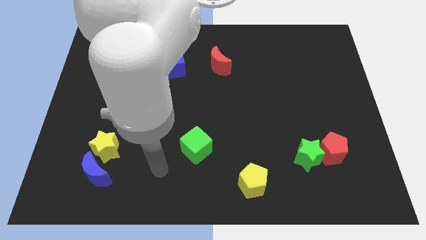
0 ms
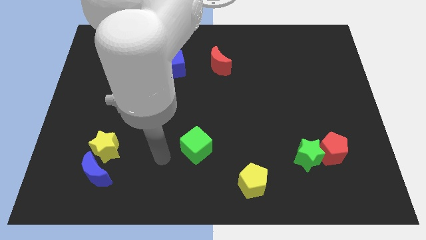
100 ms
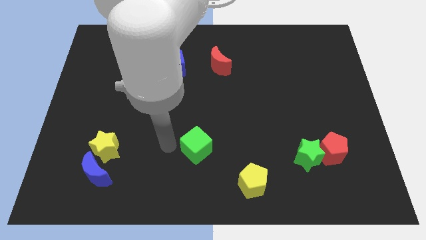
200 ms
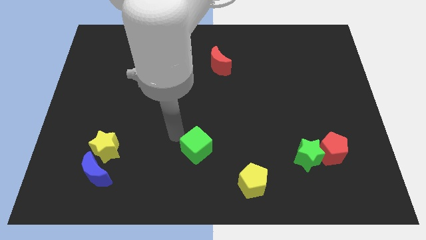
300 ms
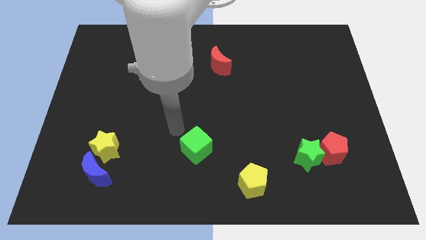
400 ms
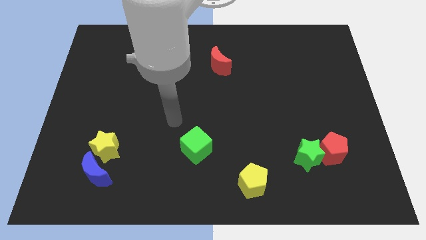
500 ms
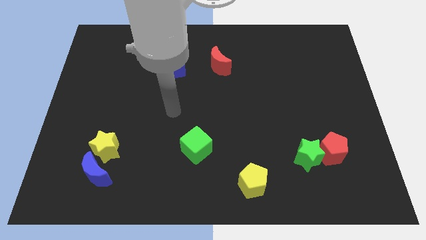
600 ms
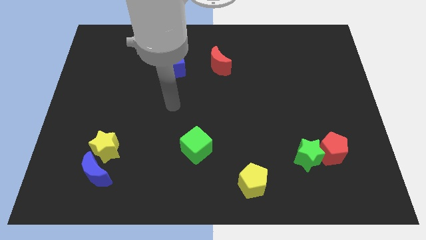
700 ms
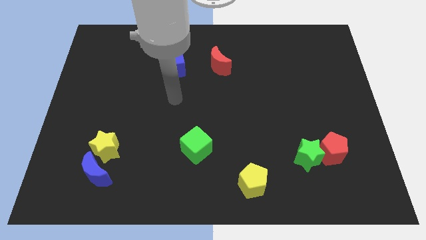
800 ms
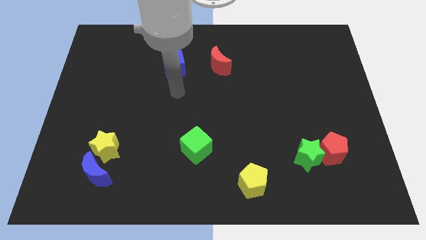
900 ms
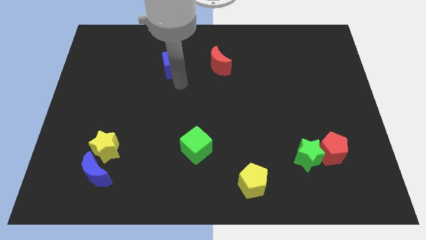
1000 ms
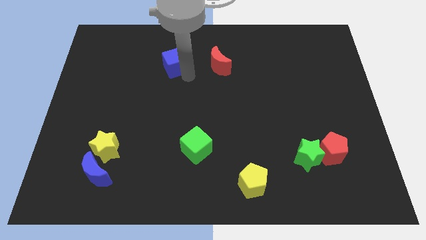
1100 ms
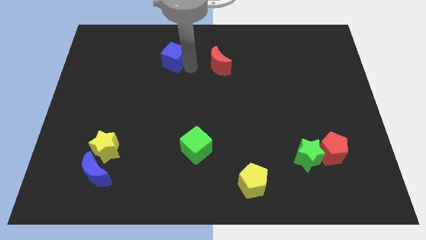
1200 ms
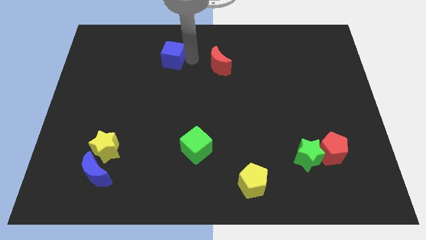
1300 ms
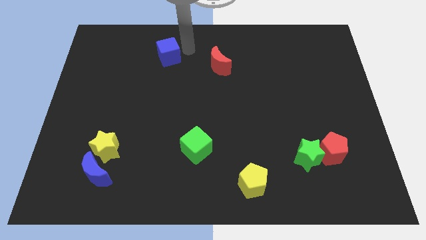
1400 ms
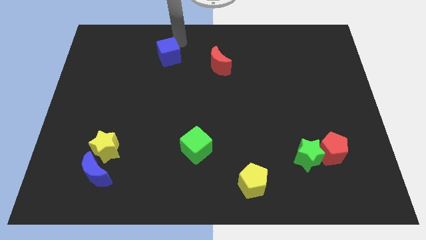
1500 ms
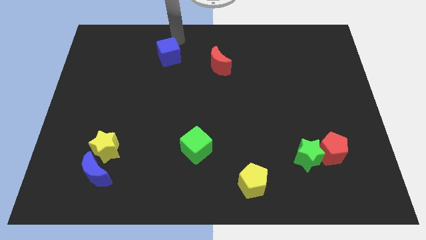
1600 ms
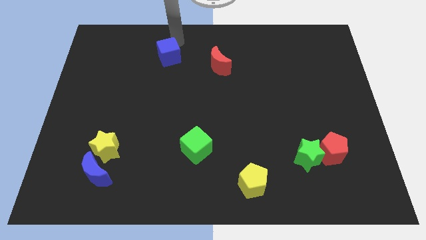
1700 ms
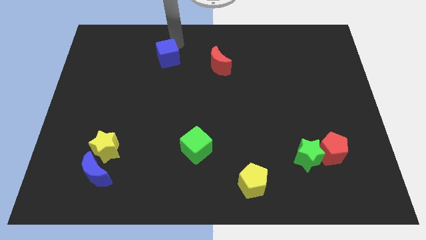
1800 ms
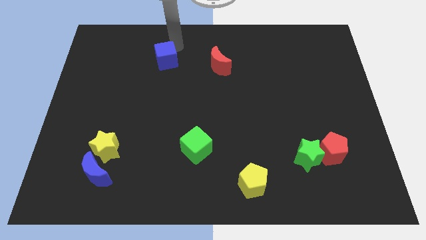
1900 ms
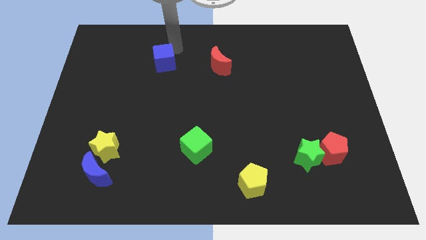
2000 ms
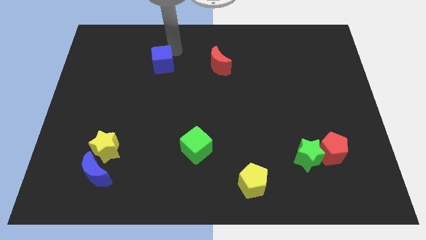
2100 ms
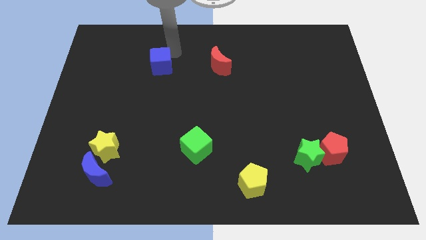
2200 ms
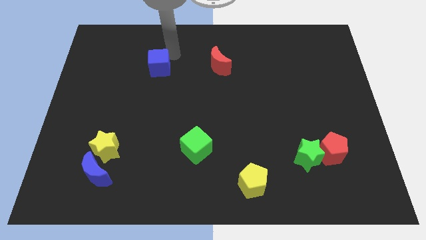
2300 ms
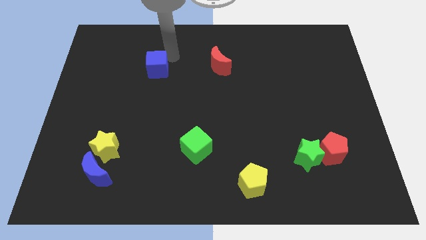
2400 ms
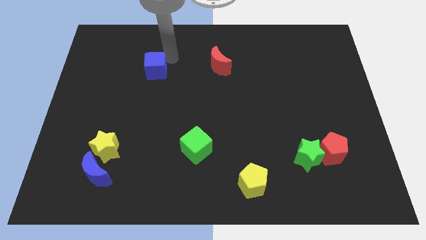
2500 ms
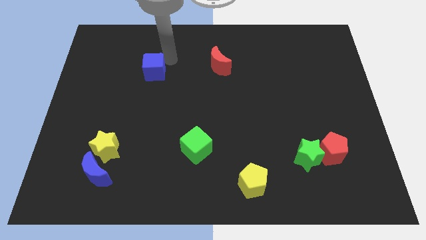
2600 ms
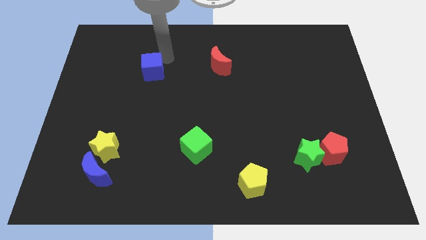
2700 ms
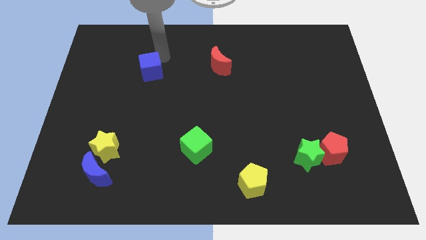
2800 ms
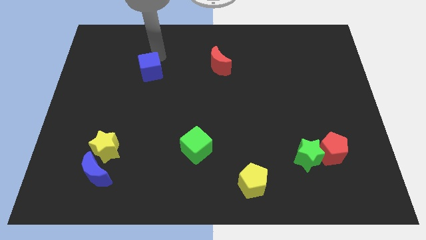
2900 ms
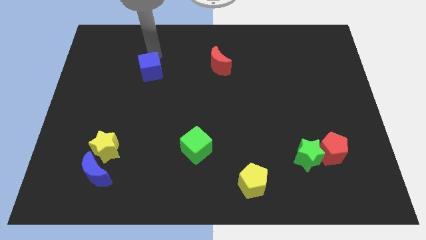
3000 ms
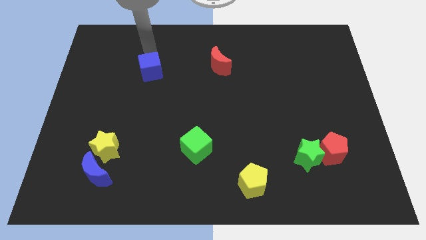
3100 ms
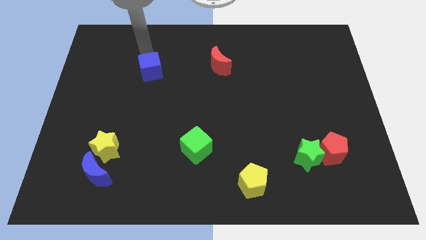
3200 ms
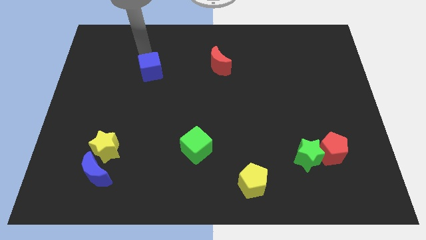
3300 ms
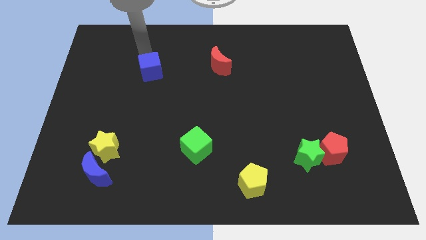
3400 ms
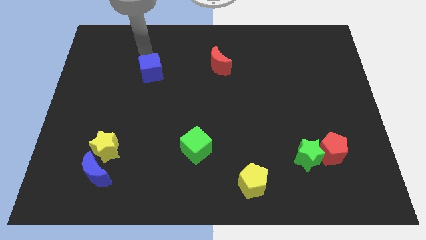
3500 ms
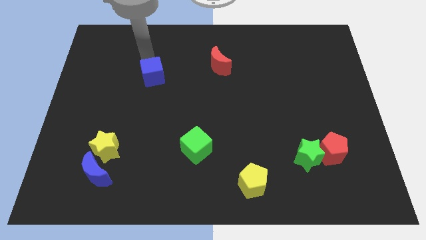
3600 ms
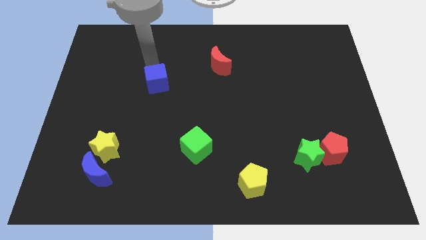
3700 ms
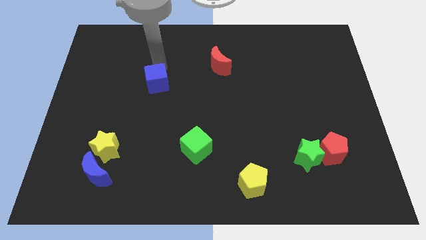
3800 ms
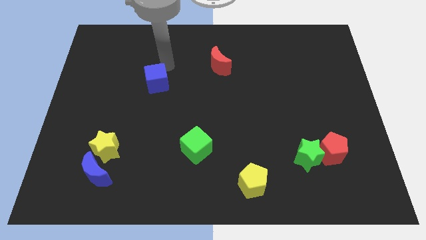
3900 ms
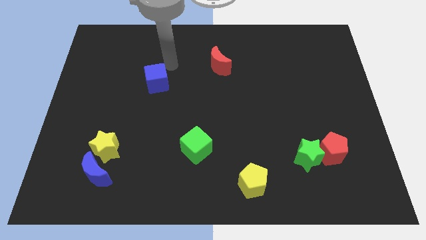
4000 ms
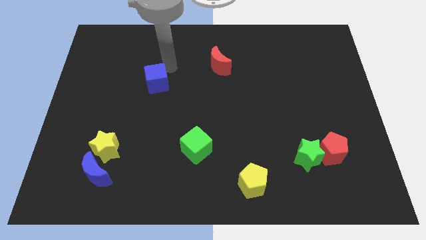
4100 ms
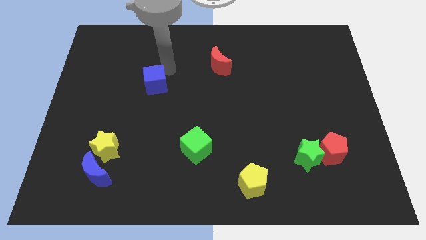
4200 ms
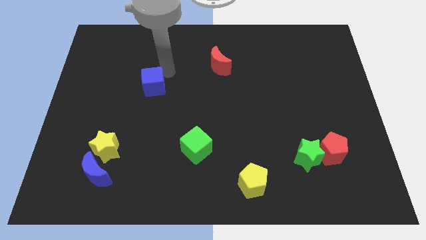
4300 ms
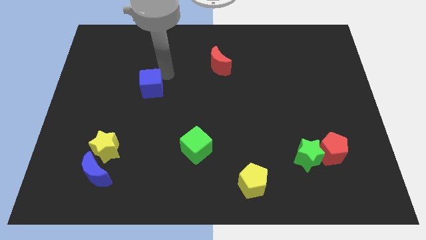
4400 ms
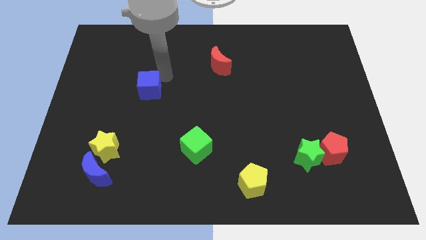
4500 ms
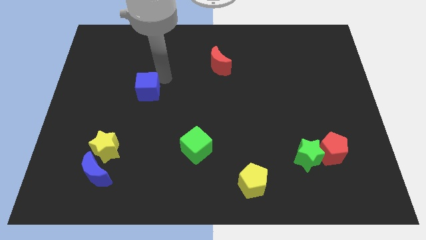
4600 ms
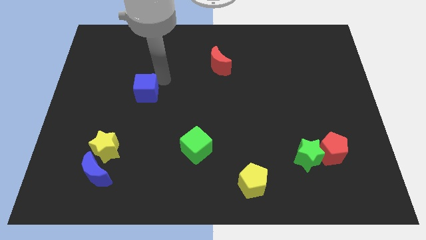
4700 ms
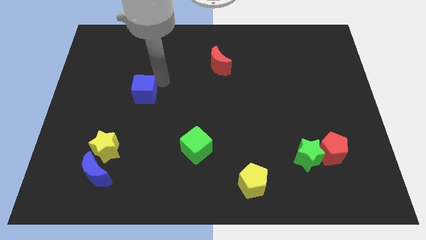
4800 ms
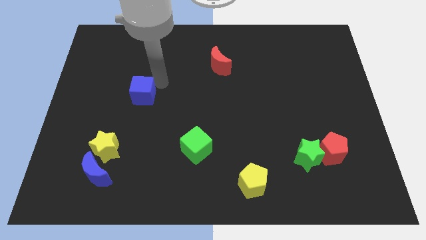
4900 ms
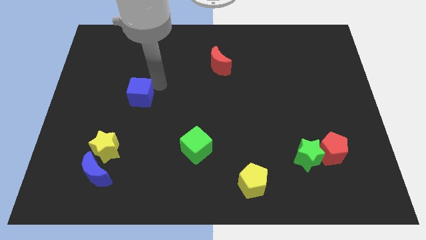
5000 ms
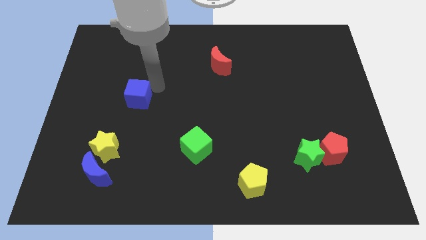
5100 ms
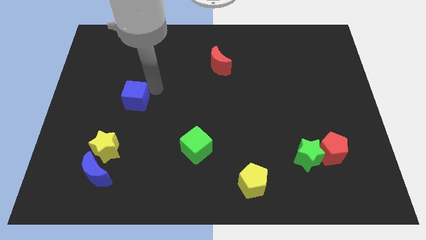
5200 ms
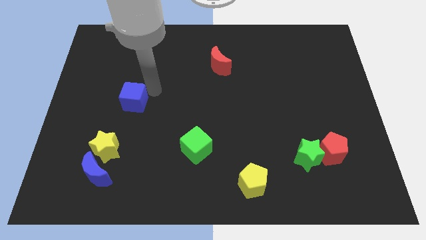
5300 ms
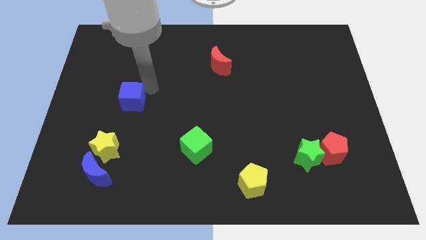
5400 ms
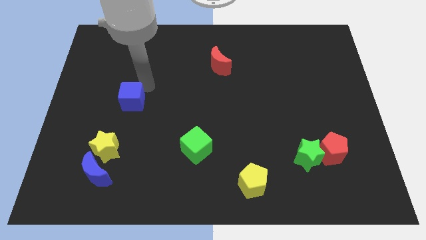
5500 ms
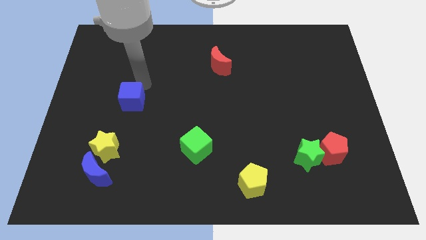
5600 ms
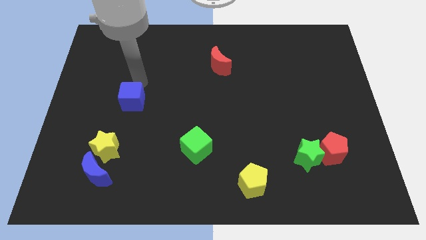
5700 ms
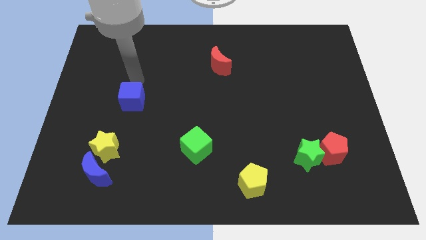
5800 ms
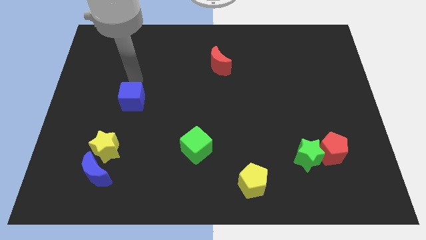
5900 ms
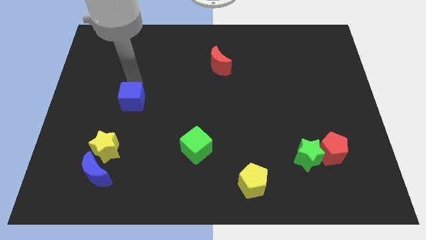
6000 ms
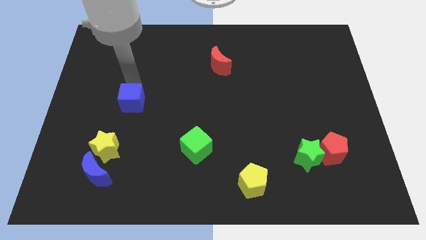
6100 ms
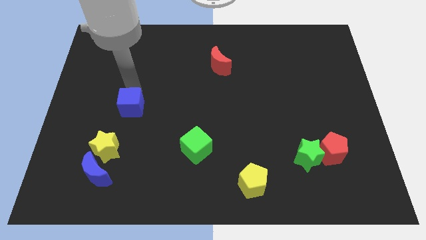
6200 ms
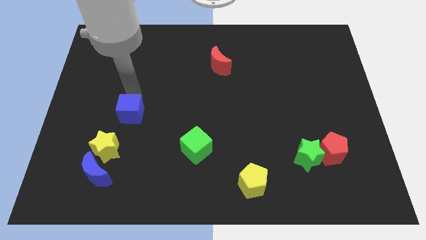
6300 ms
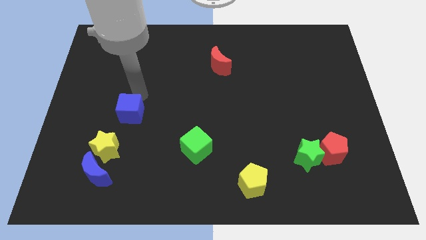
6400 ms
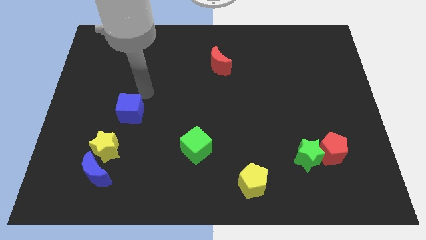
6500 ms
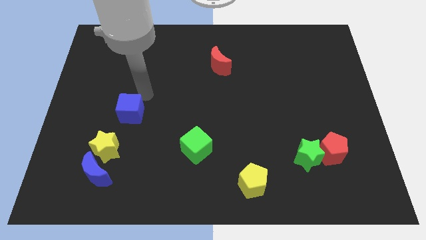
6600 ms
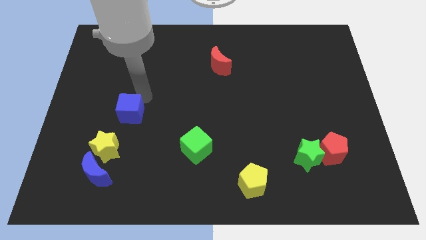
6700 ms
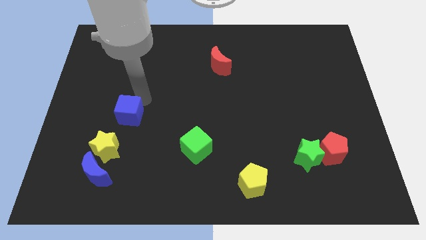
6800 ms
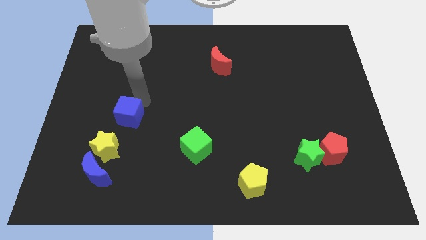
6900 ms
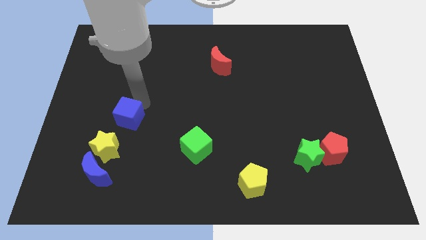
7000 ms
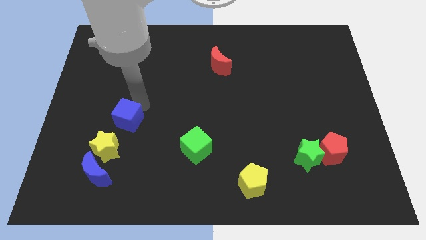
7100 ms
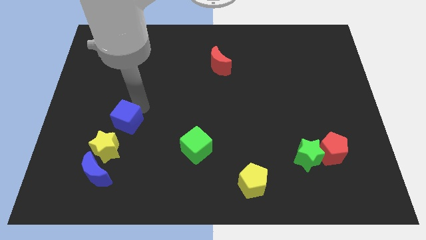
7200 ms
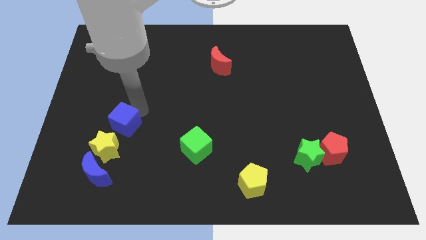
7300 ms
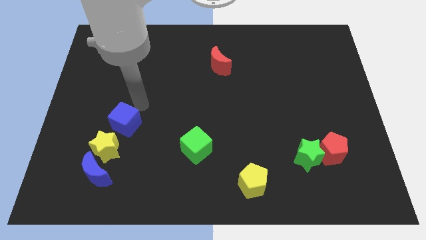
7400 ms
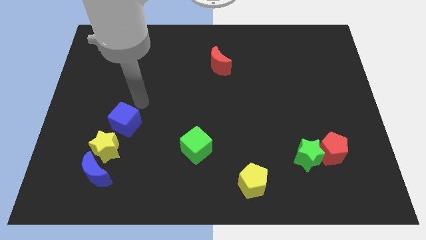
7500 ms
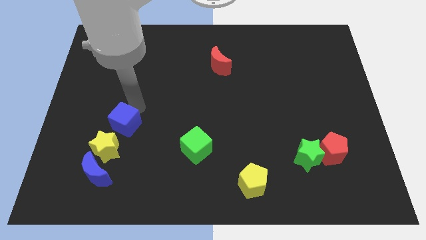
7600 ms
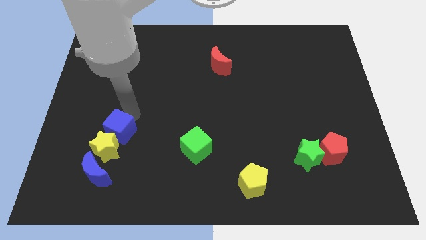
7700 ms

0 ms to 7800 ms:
push the blue cube towards the yellow star
